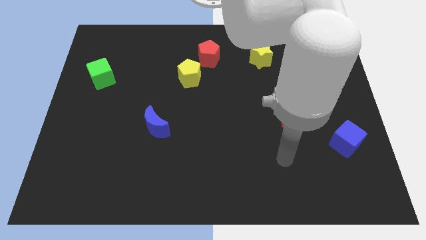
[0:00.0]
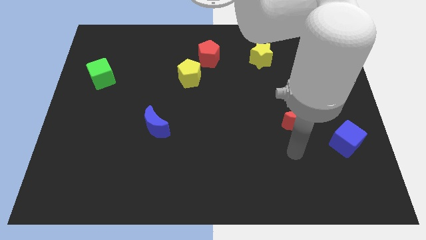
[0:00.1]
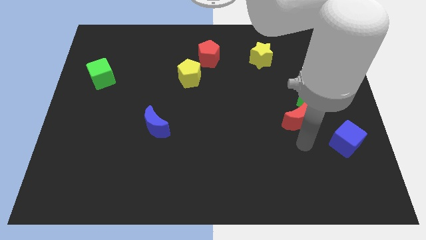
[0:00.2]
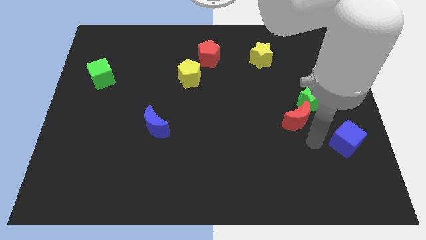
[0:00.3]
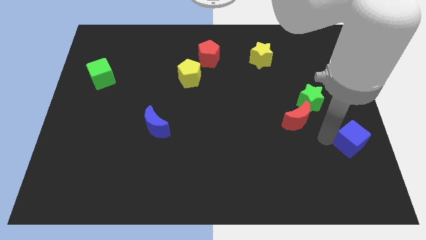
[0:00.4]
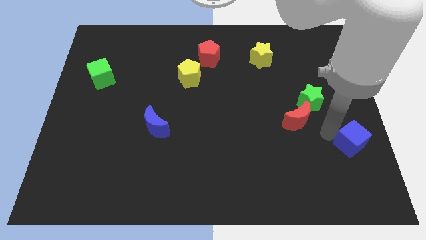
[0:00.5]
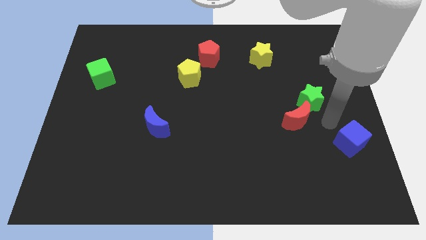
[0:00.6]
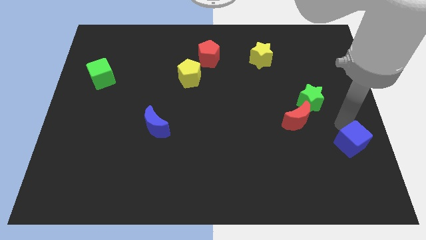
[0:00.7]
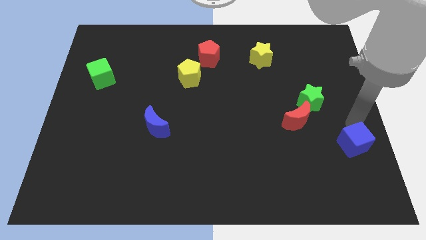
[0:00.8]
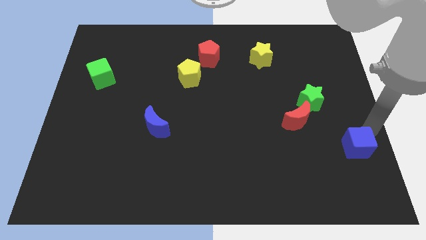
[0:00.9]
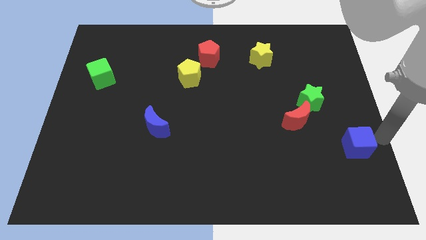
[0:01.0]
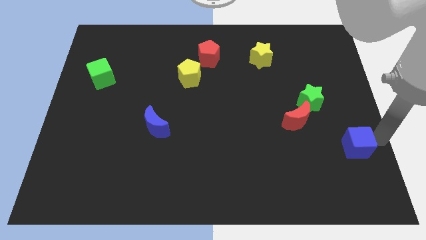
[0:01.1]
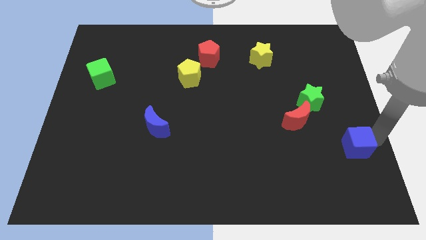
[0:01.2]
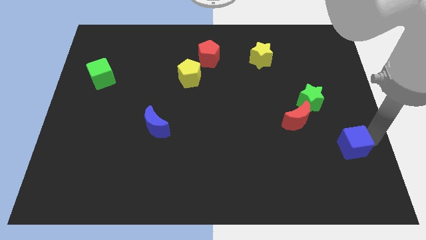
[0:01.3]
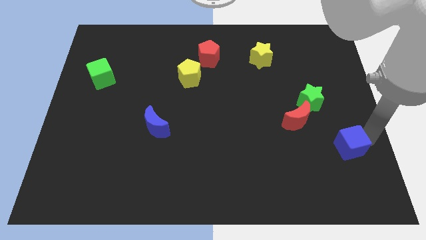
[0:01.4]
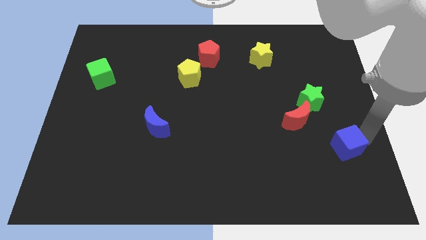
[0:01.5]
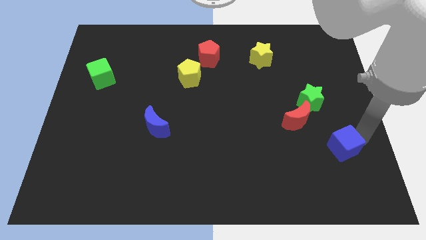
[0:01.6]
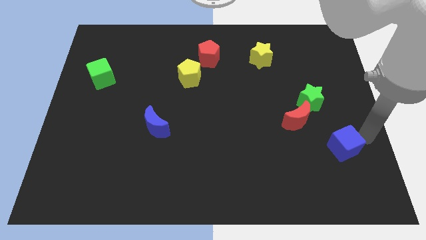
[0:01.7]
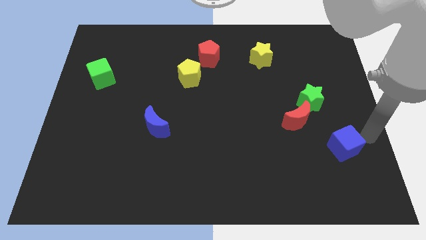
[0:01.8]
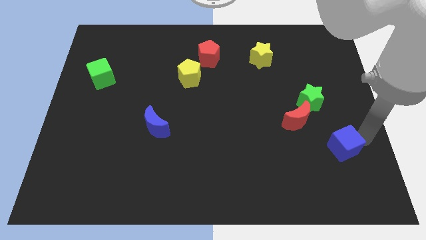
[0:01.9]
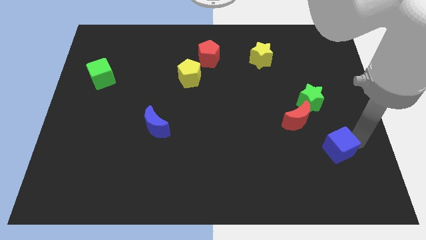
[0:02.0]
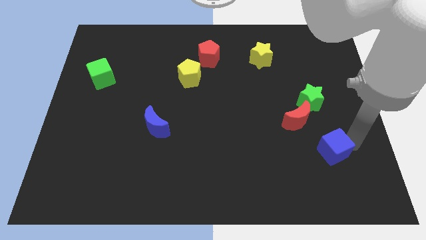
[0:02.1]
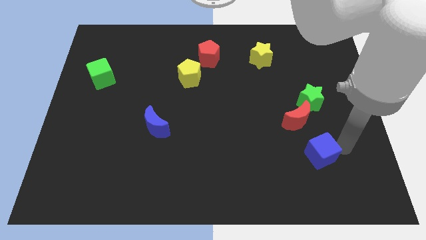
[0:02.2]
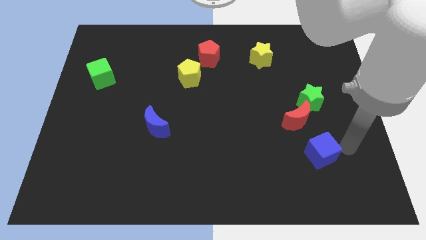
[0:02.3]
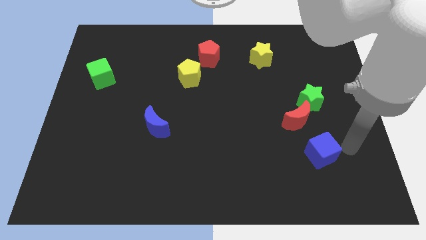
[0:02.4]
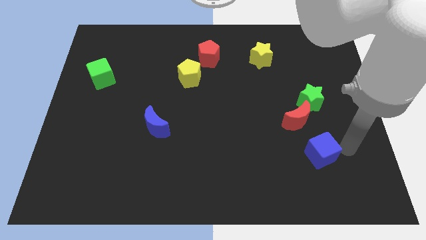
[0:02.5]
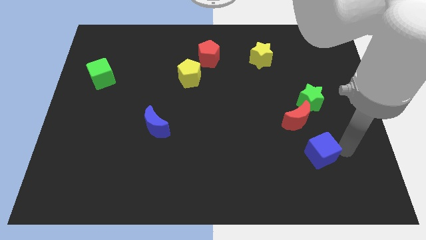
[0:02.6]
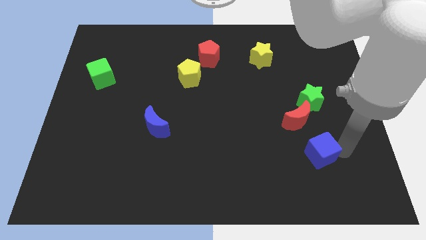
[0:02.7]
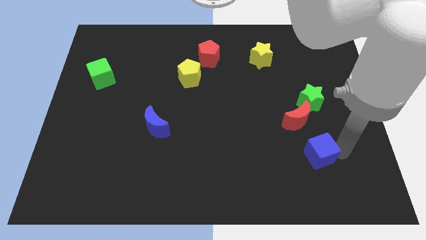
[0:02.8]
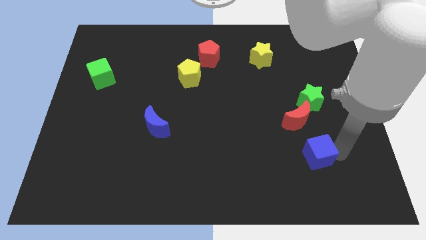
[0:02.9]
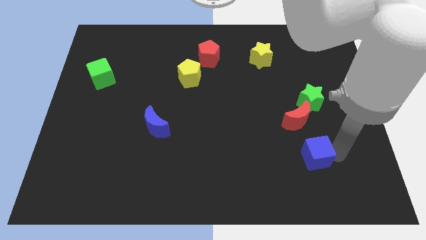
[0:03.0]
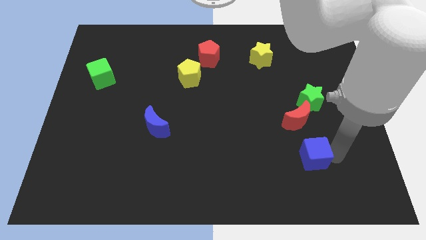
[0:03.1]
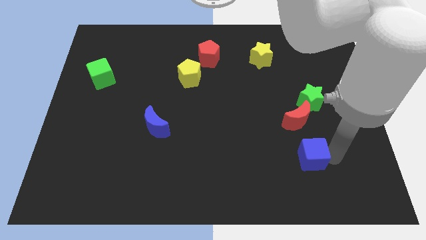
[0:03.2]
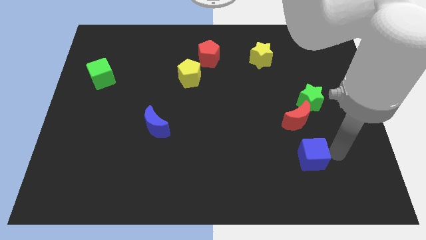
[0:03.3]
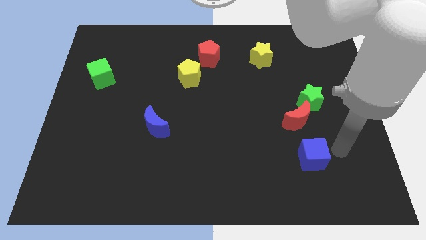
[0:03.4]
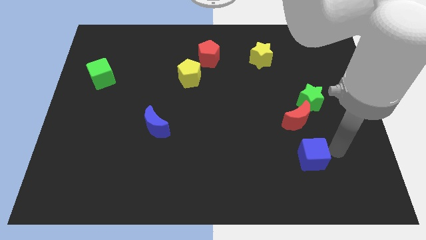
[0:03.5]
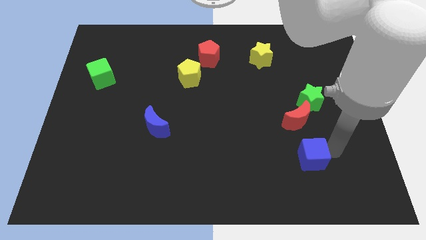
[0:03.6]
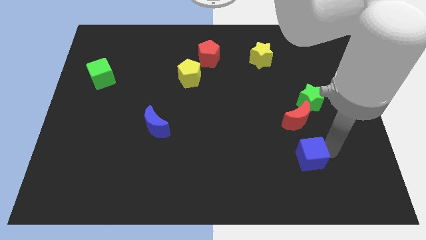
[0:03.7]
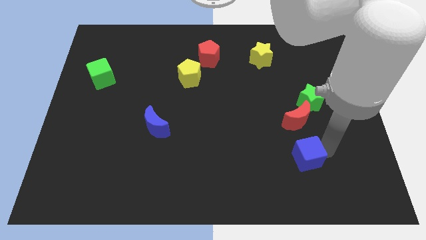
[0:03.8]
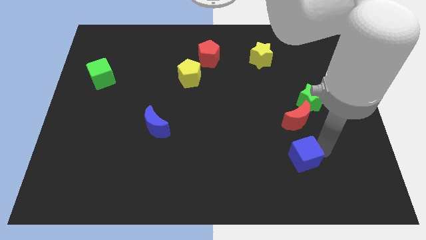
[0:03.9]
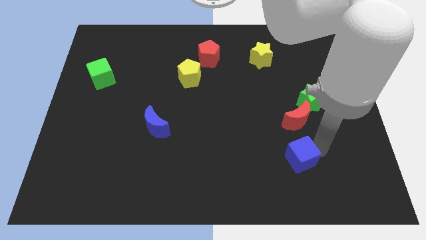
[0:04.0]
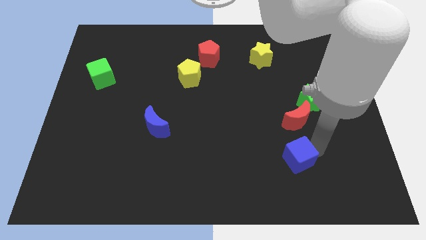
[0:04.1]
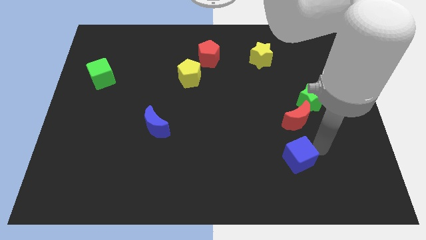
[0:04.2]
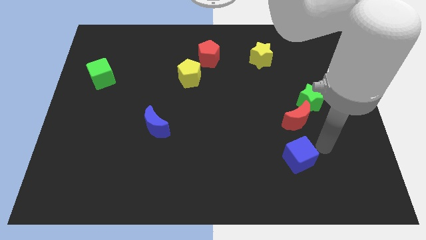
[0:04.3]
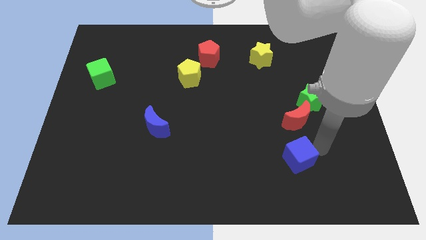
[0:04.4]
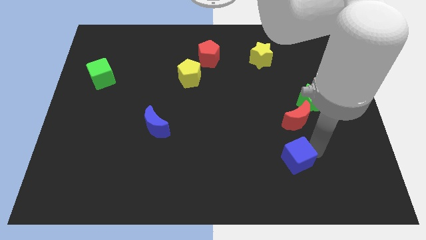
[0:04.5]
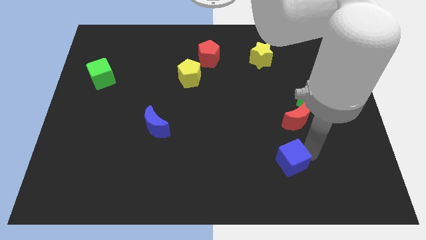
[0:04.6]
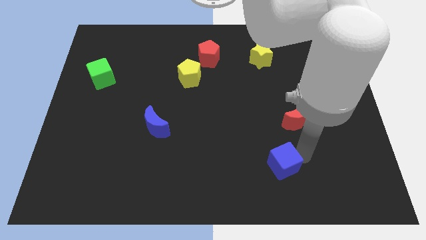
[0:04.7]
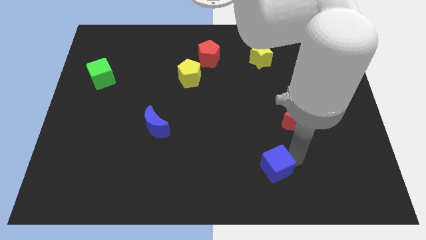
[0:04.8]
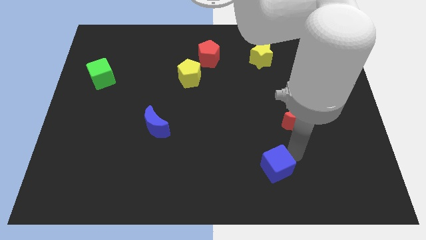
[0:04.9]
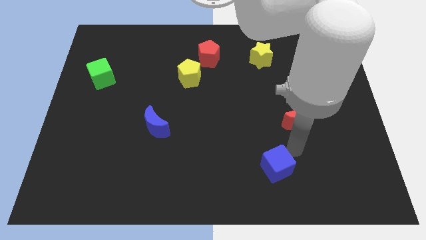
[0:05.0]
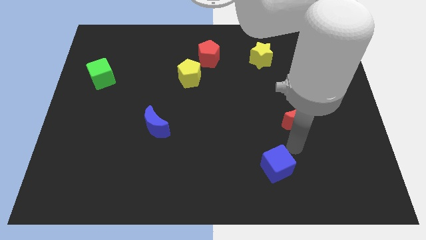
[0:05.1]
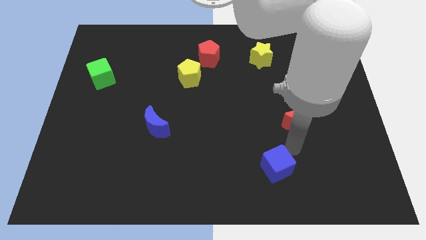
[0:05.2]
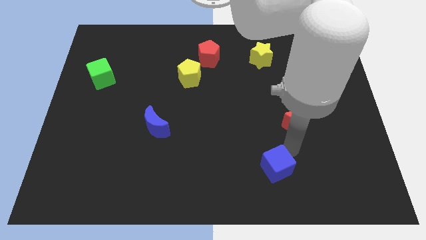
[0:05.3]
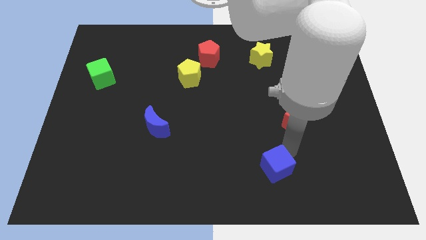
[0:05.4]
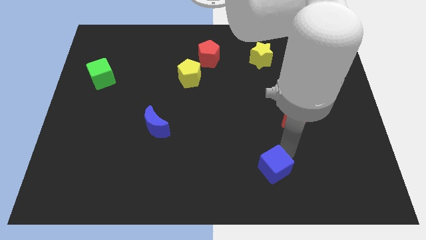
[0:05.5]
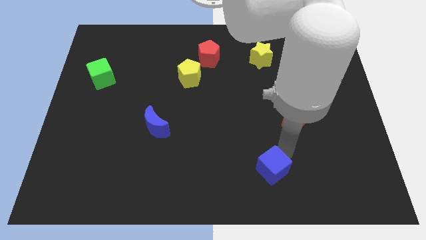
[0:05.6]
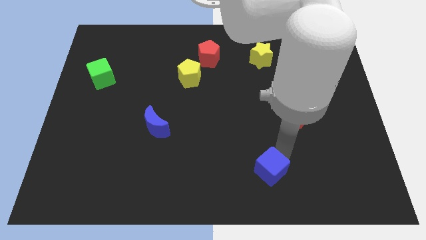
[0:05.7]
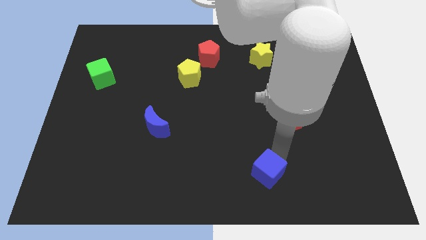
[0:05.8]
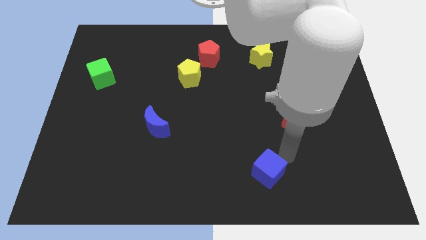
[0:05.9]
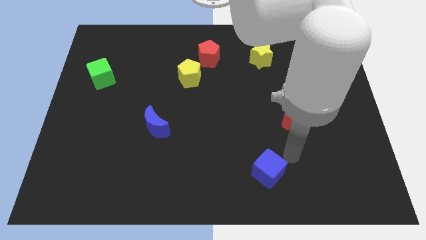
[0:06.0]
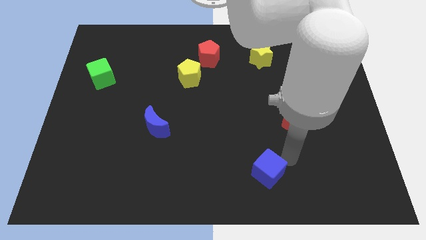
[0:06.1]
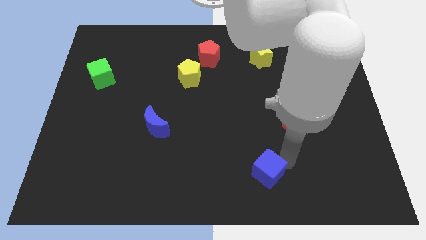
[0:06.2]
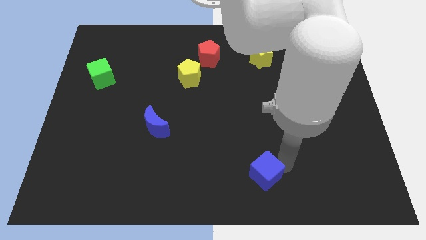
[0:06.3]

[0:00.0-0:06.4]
slide the blue cube to the bottom

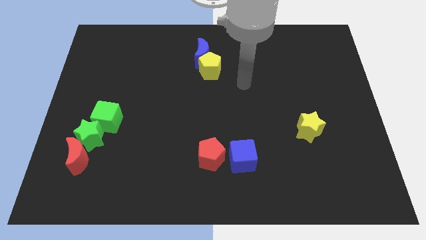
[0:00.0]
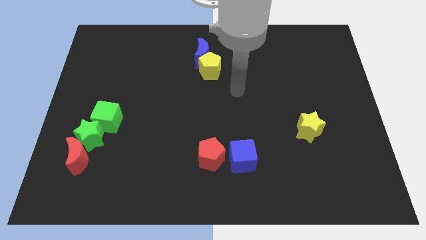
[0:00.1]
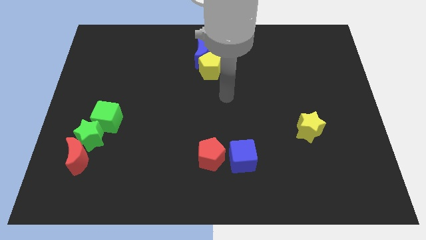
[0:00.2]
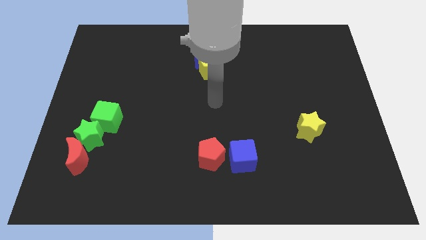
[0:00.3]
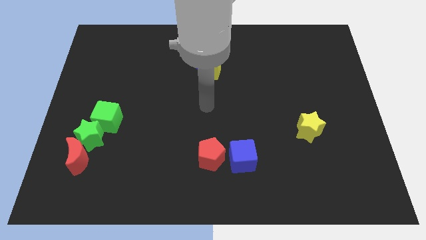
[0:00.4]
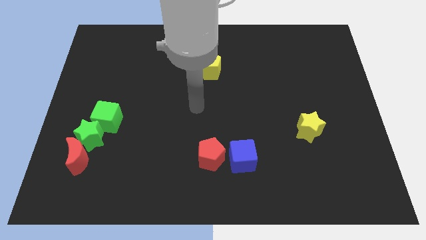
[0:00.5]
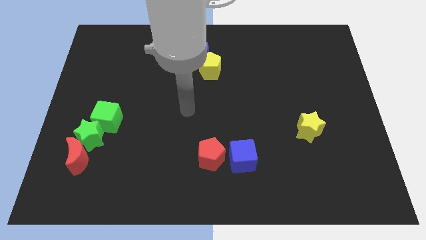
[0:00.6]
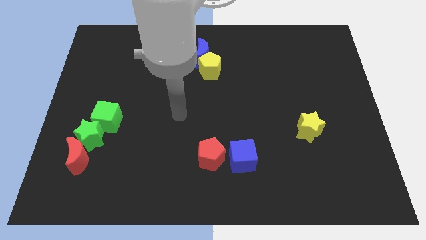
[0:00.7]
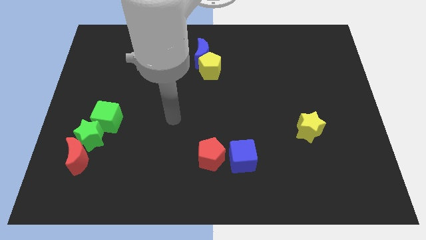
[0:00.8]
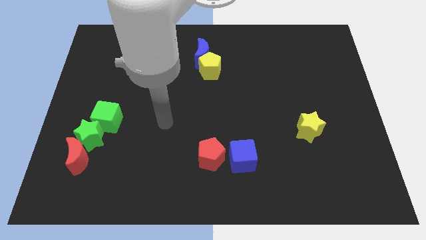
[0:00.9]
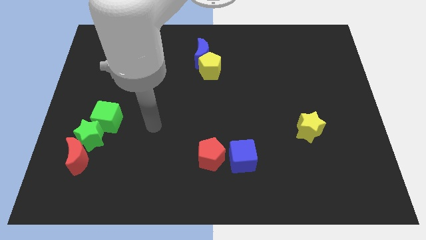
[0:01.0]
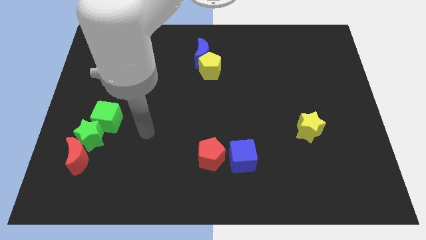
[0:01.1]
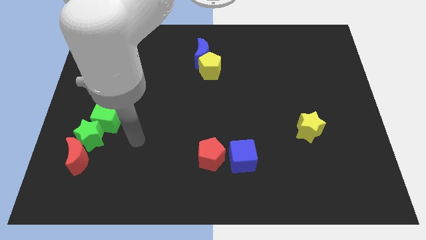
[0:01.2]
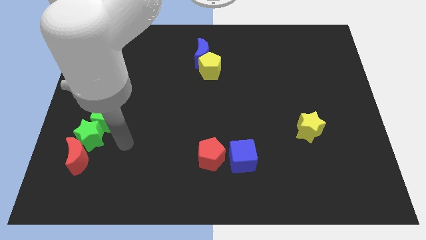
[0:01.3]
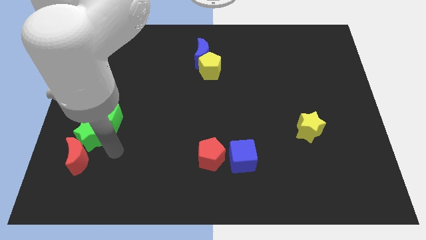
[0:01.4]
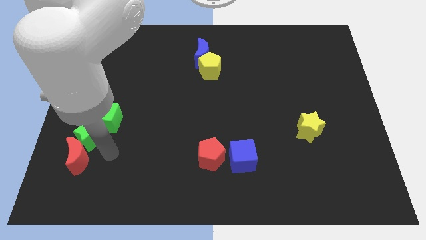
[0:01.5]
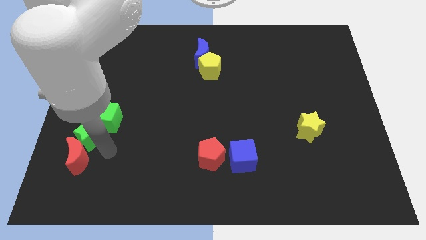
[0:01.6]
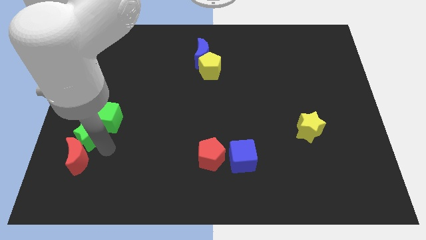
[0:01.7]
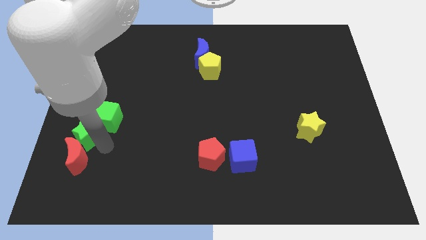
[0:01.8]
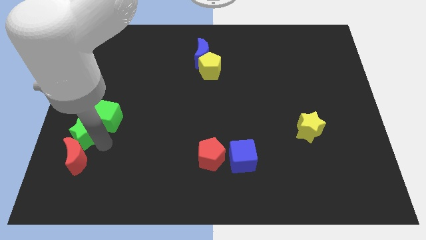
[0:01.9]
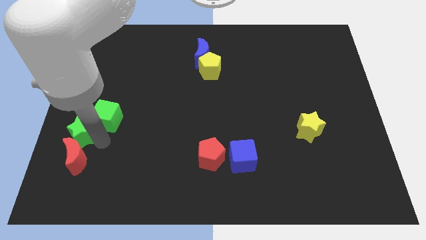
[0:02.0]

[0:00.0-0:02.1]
put the green star to the left side
